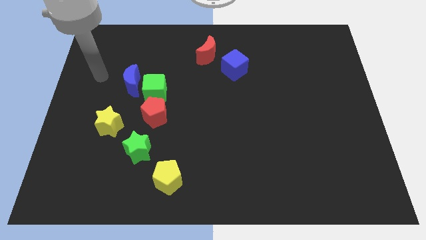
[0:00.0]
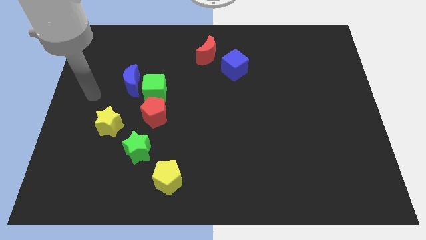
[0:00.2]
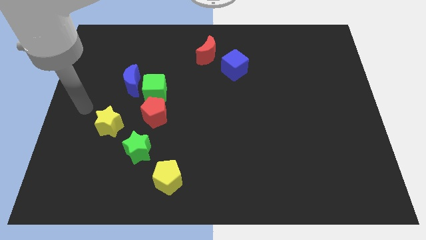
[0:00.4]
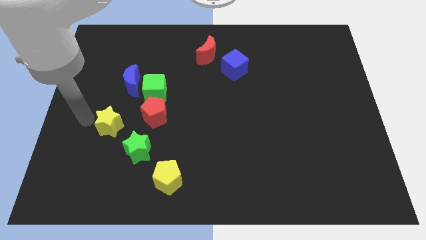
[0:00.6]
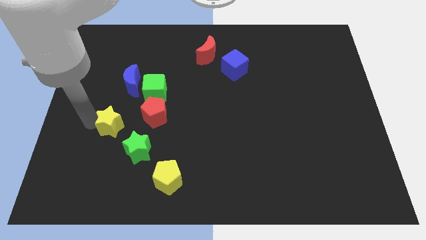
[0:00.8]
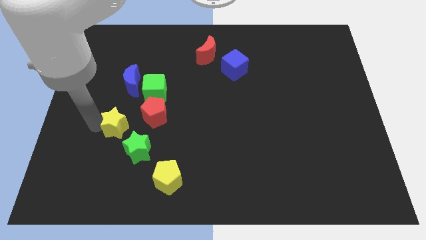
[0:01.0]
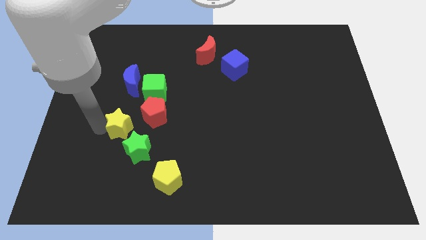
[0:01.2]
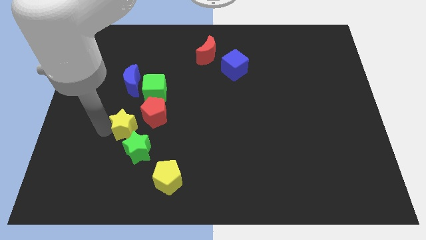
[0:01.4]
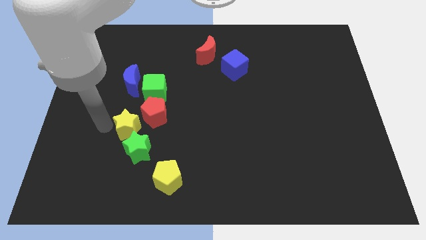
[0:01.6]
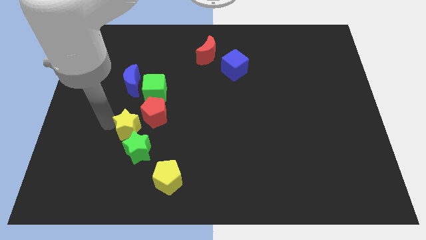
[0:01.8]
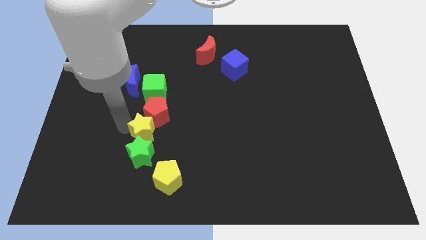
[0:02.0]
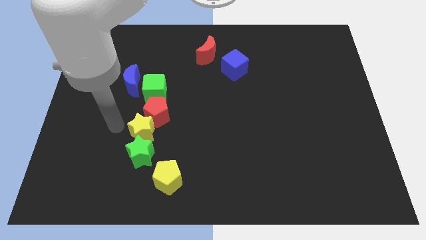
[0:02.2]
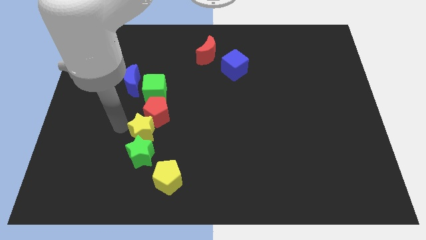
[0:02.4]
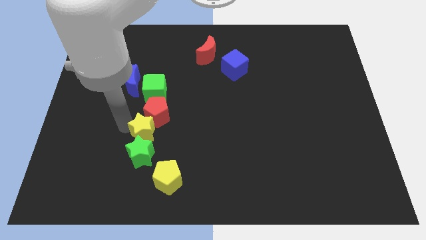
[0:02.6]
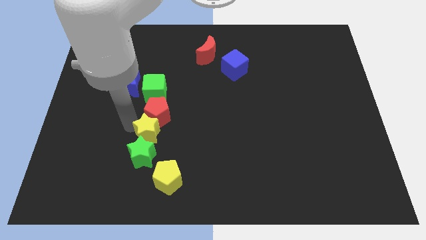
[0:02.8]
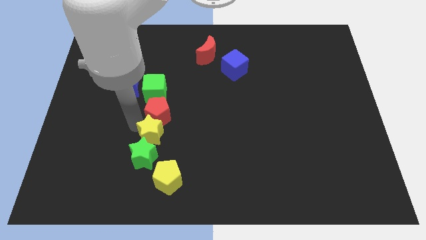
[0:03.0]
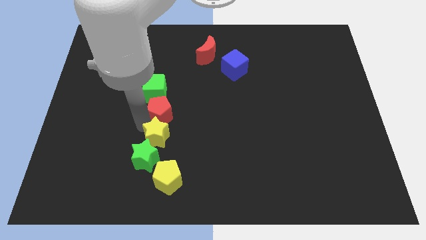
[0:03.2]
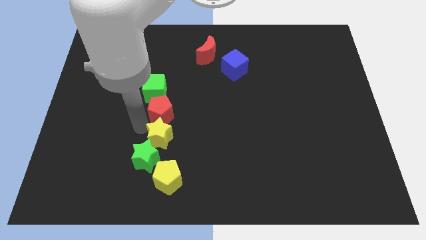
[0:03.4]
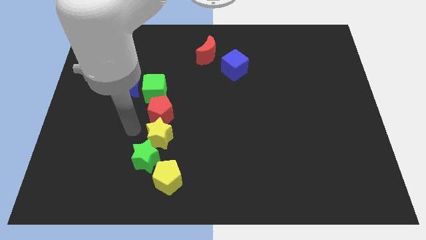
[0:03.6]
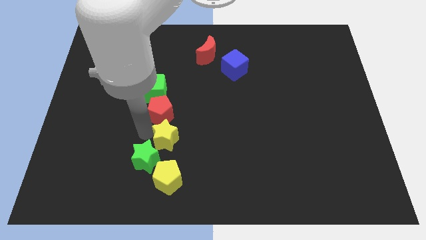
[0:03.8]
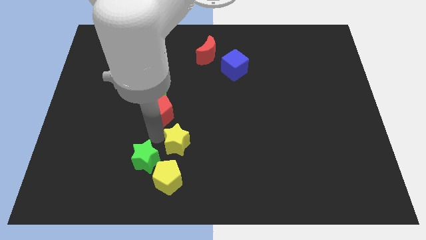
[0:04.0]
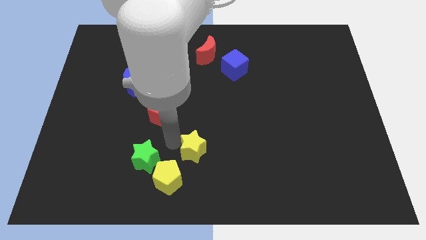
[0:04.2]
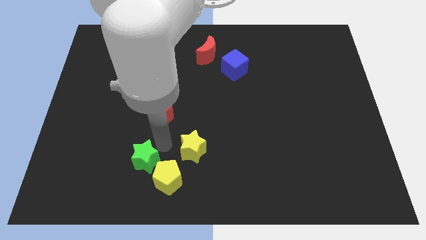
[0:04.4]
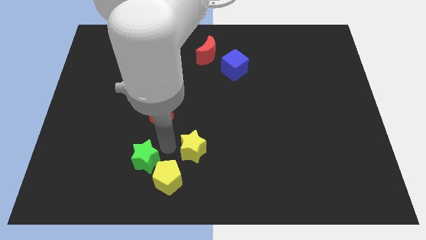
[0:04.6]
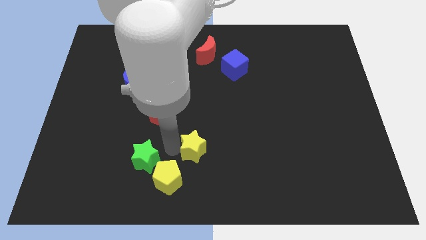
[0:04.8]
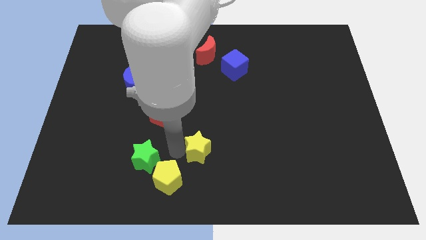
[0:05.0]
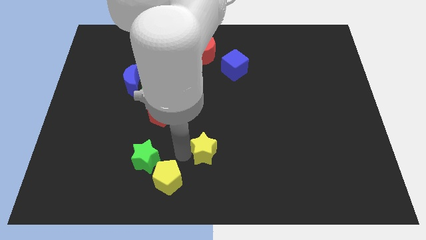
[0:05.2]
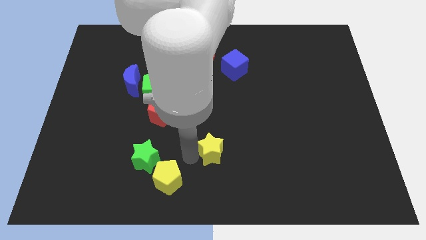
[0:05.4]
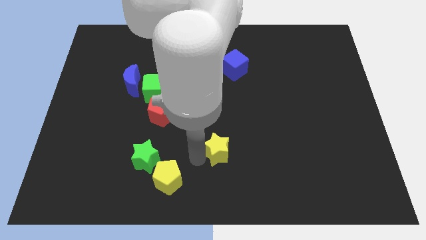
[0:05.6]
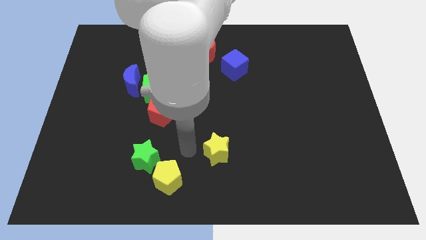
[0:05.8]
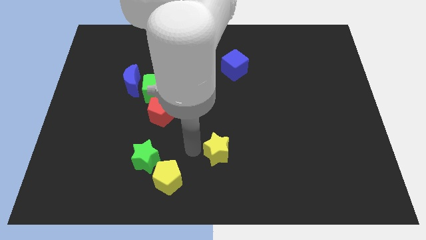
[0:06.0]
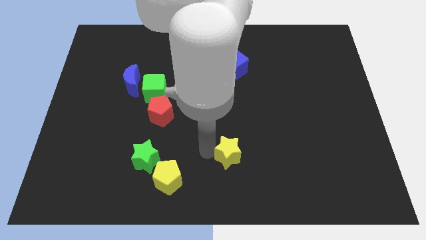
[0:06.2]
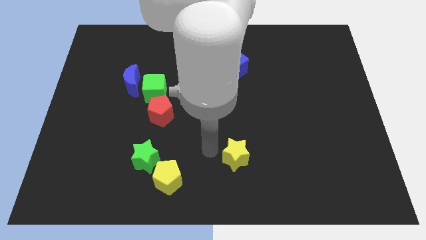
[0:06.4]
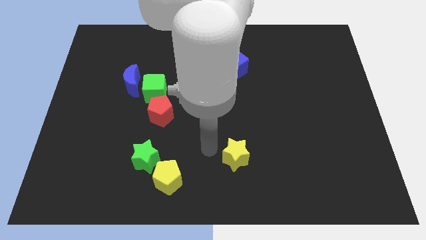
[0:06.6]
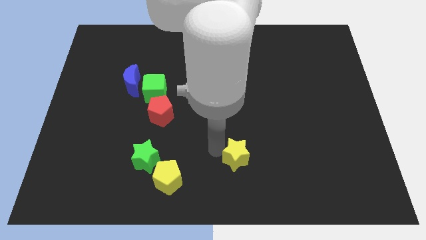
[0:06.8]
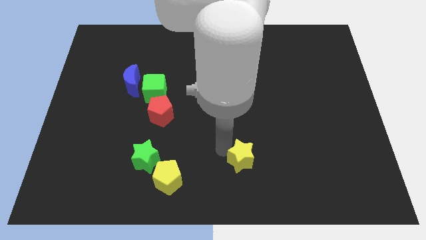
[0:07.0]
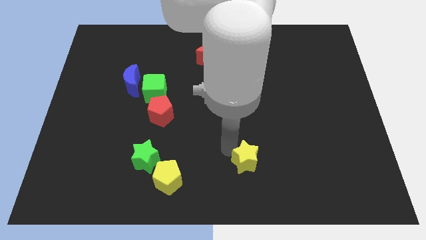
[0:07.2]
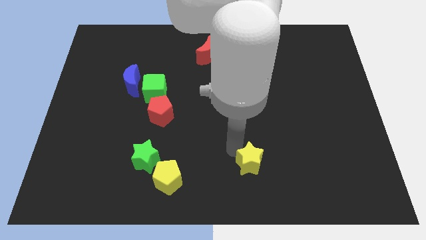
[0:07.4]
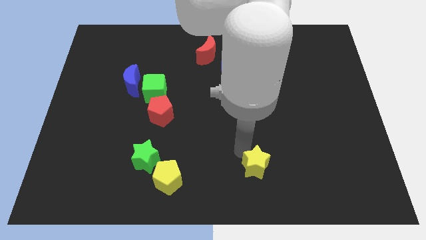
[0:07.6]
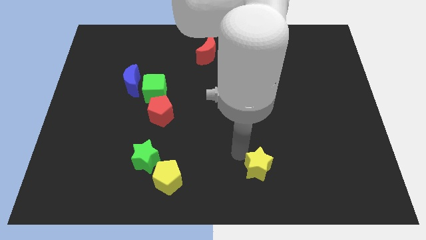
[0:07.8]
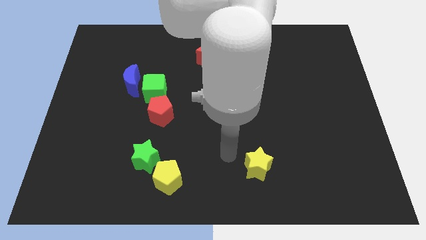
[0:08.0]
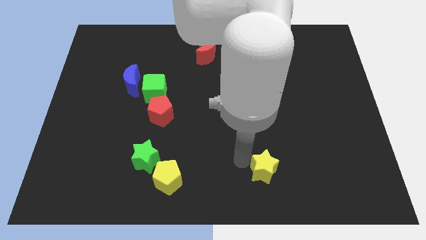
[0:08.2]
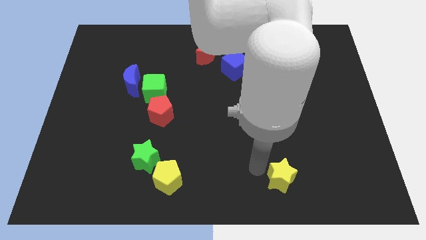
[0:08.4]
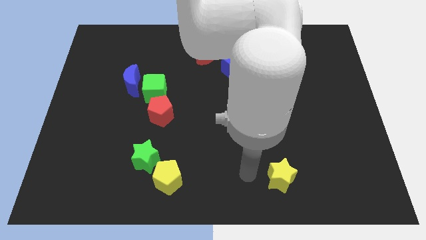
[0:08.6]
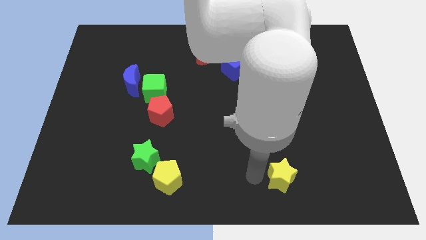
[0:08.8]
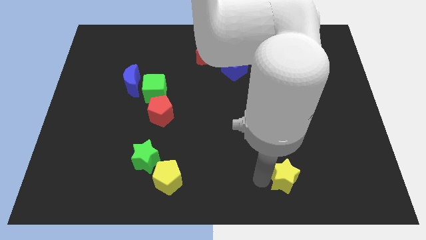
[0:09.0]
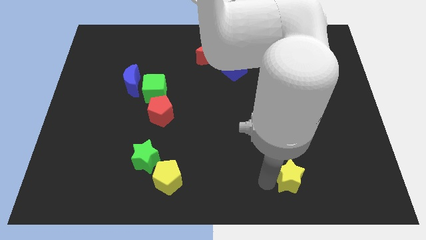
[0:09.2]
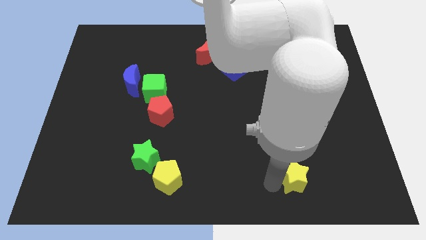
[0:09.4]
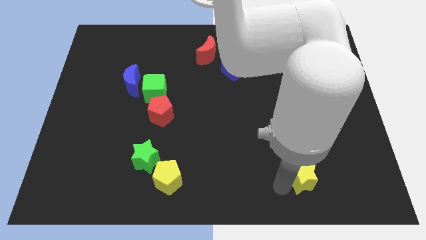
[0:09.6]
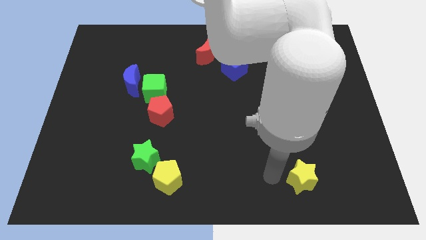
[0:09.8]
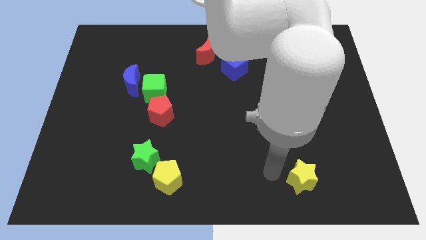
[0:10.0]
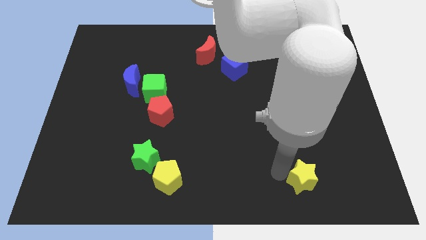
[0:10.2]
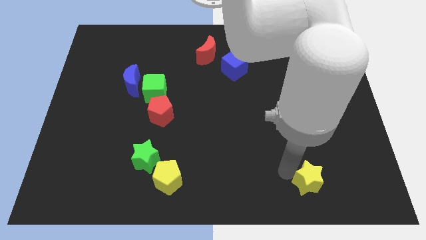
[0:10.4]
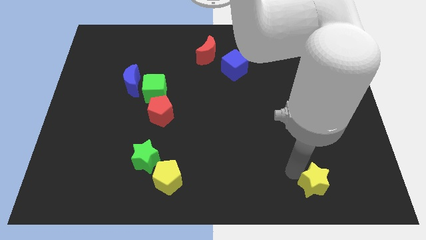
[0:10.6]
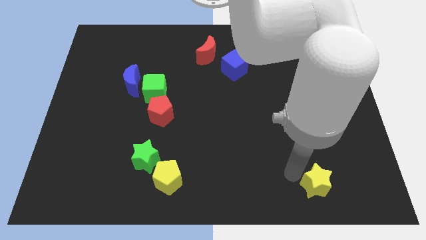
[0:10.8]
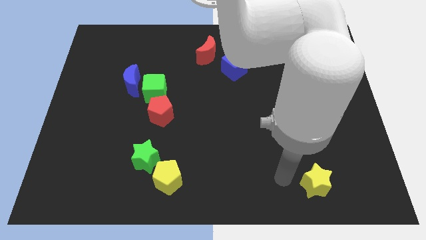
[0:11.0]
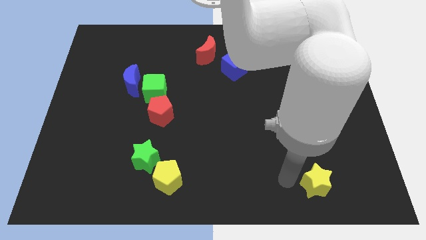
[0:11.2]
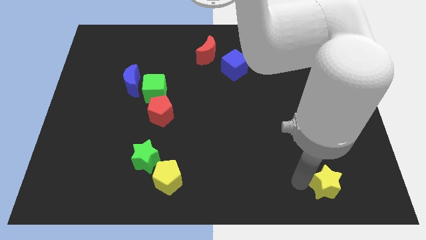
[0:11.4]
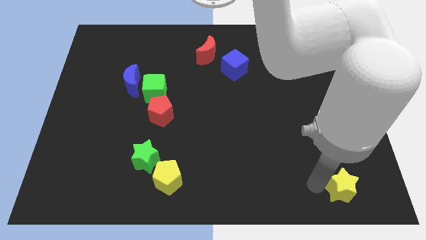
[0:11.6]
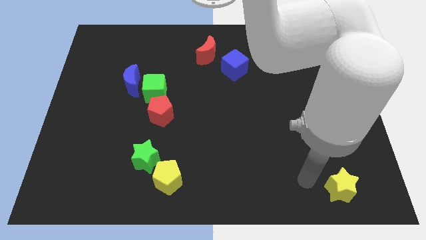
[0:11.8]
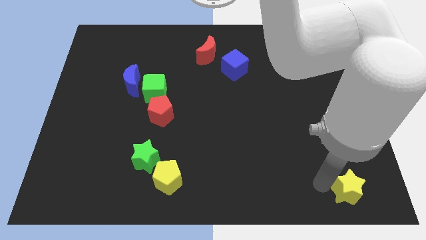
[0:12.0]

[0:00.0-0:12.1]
put the yellow star to the bottom right corner
